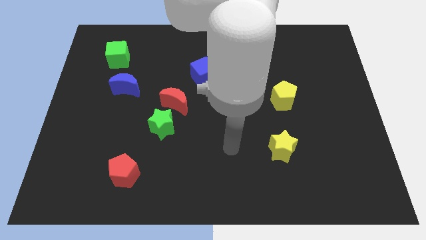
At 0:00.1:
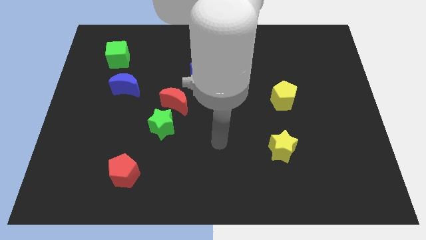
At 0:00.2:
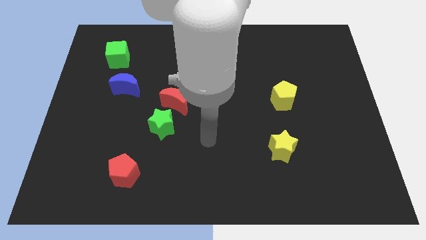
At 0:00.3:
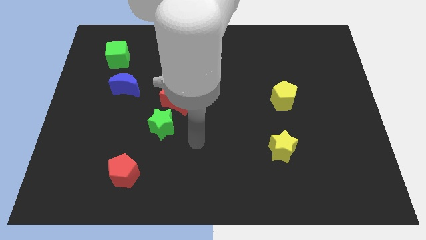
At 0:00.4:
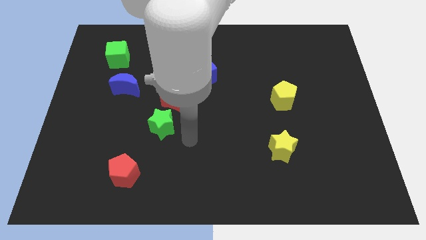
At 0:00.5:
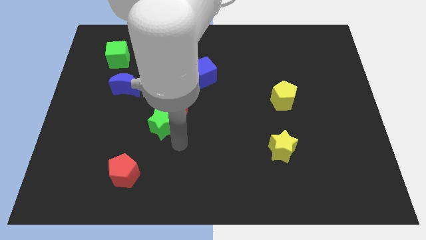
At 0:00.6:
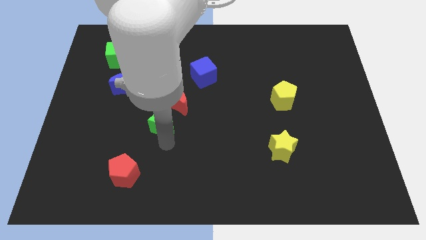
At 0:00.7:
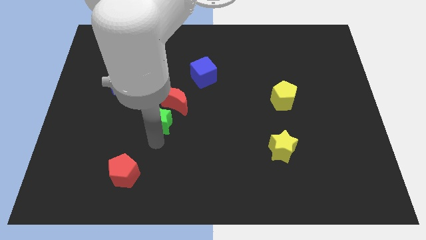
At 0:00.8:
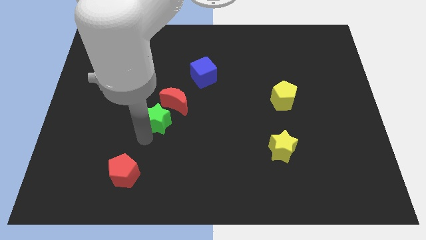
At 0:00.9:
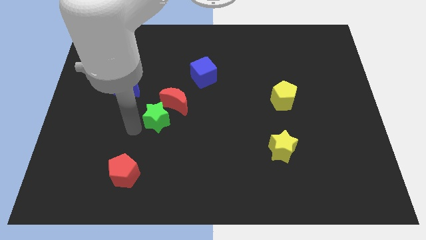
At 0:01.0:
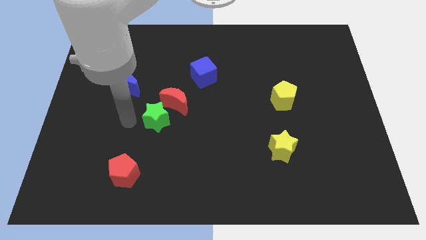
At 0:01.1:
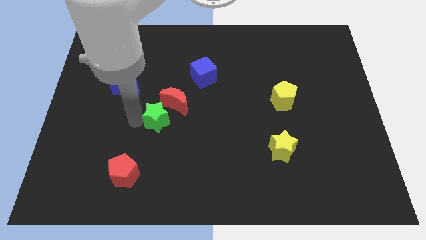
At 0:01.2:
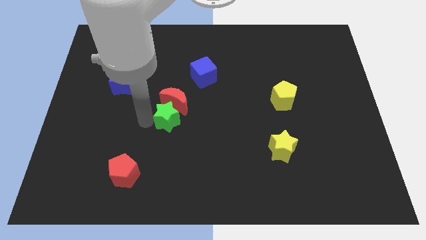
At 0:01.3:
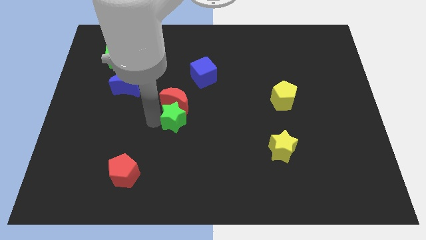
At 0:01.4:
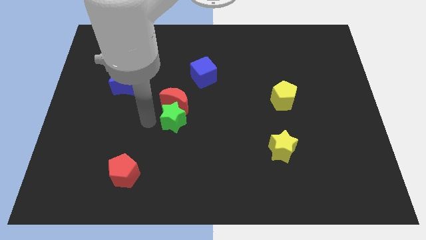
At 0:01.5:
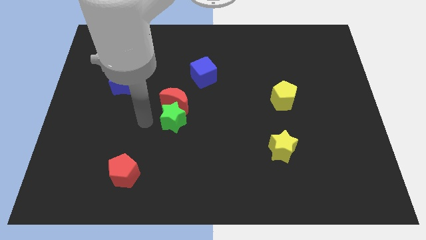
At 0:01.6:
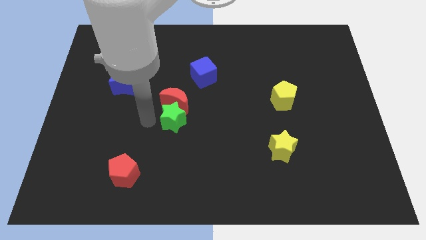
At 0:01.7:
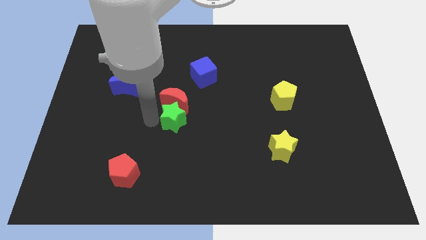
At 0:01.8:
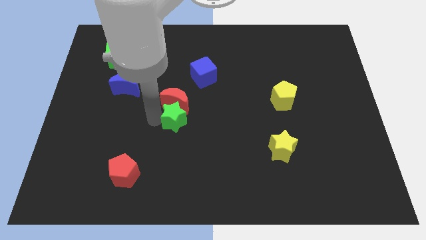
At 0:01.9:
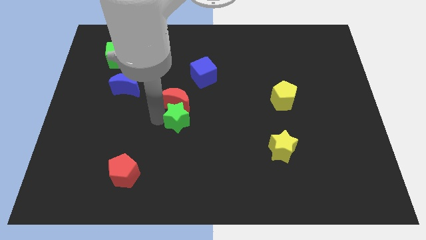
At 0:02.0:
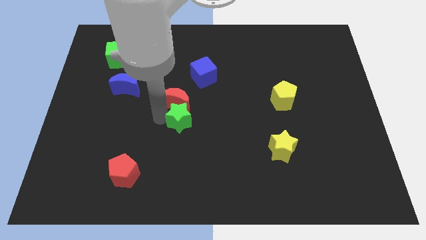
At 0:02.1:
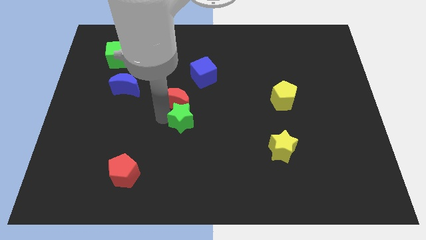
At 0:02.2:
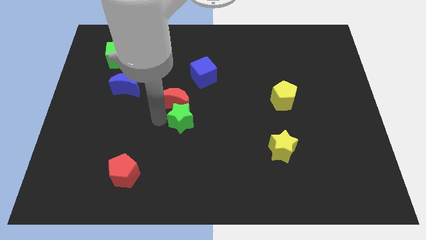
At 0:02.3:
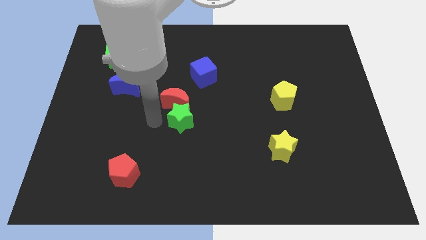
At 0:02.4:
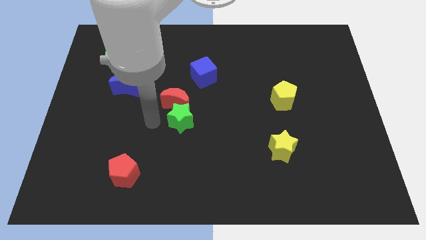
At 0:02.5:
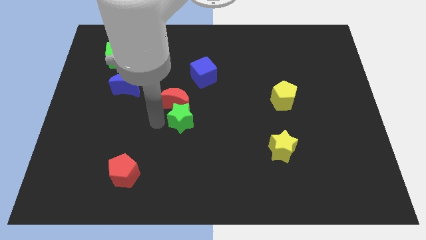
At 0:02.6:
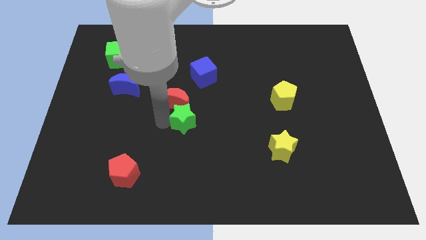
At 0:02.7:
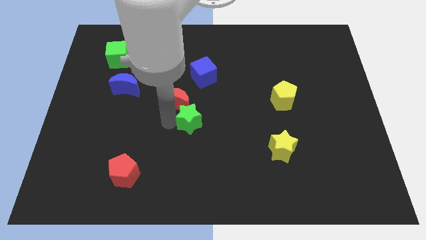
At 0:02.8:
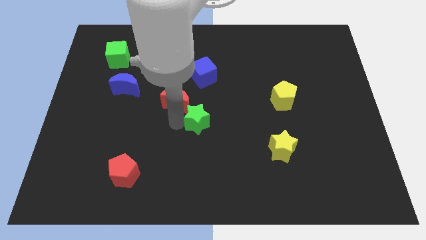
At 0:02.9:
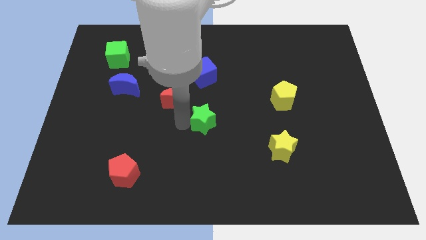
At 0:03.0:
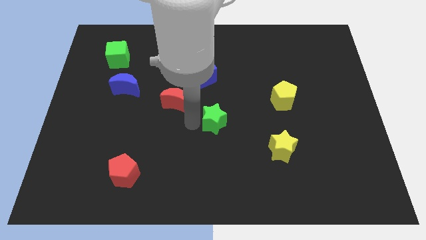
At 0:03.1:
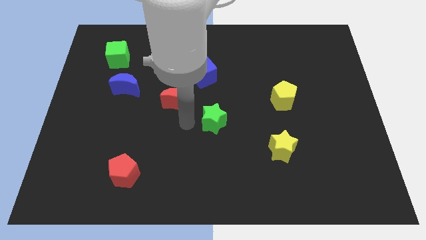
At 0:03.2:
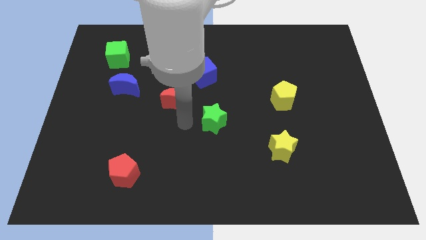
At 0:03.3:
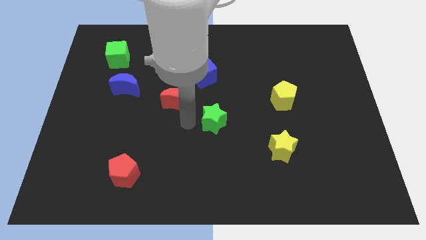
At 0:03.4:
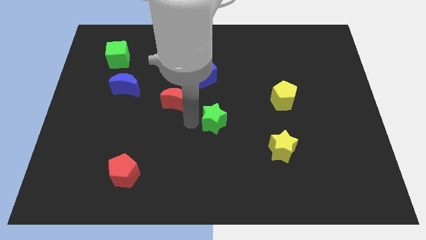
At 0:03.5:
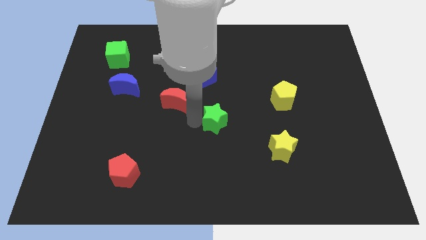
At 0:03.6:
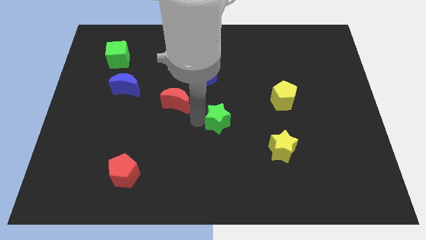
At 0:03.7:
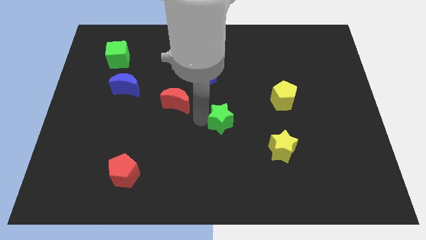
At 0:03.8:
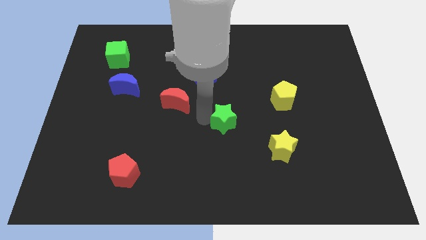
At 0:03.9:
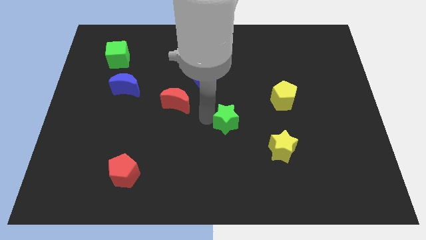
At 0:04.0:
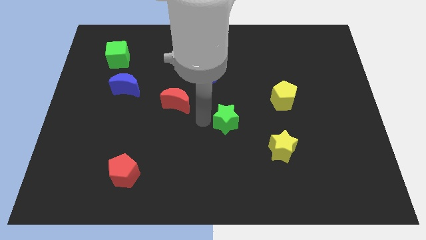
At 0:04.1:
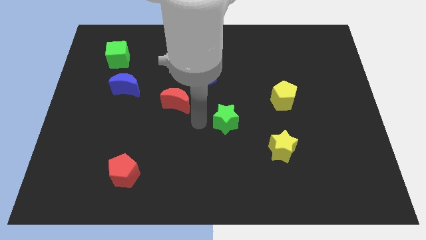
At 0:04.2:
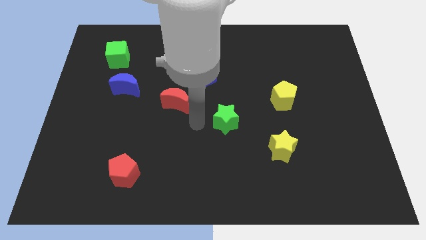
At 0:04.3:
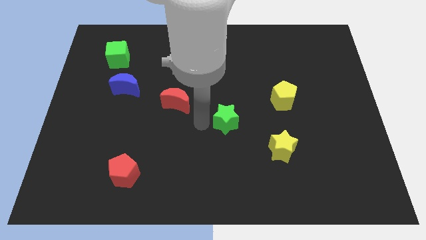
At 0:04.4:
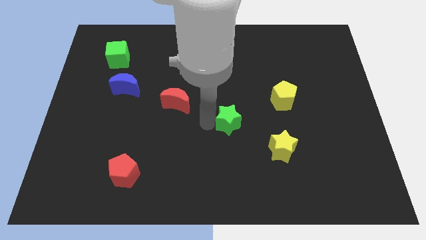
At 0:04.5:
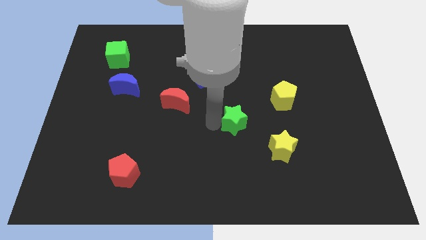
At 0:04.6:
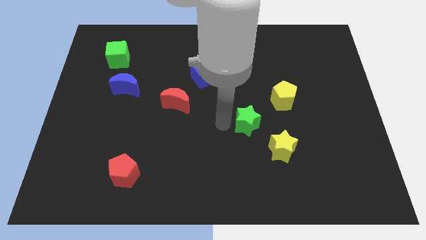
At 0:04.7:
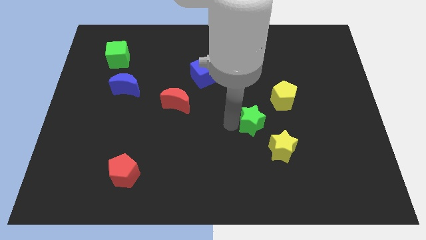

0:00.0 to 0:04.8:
slide the green star to the right

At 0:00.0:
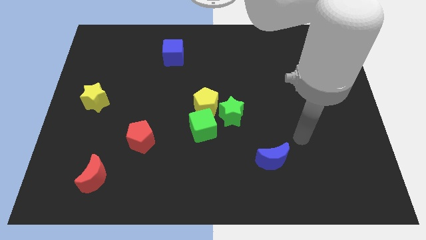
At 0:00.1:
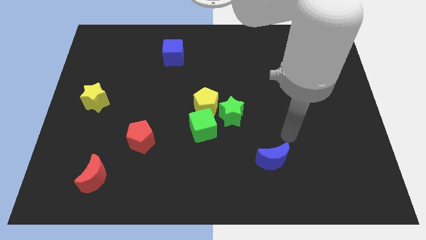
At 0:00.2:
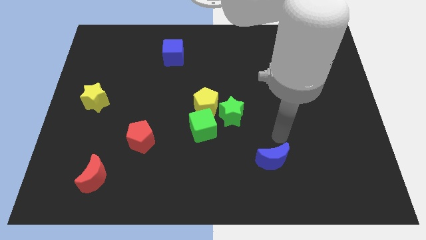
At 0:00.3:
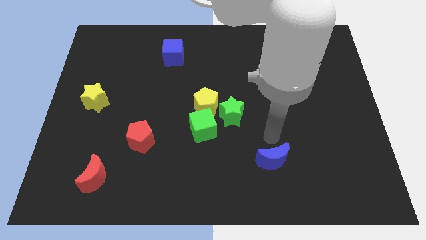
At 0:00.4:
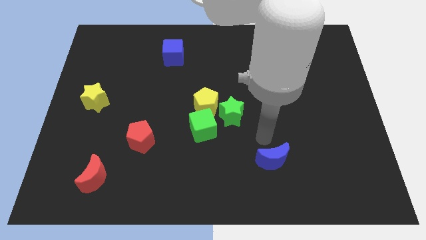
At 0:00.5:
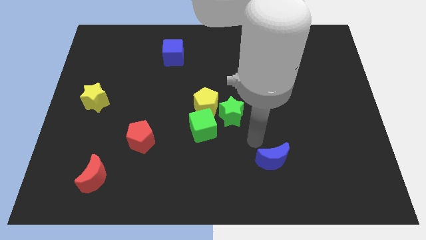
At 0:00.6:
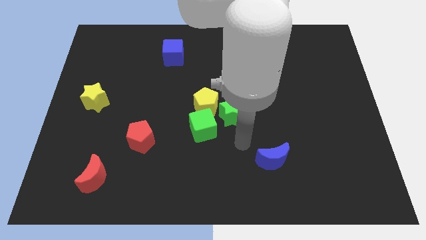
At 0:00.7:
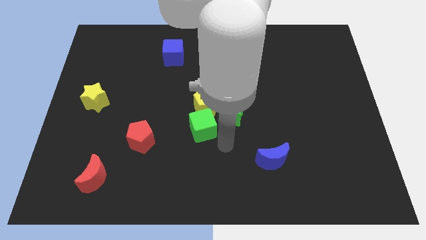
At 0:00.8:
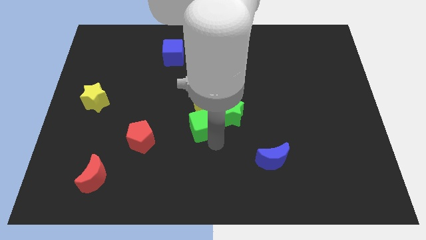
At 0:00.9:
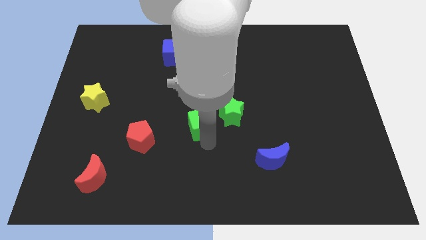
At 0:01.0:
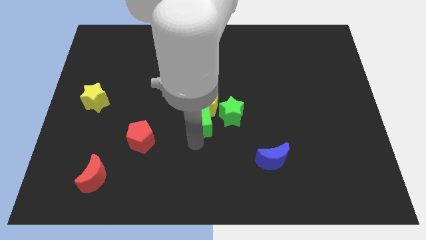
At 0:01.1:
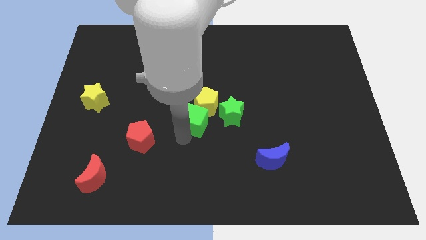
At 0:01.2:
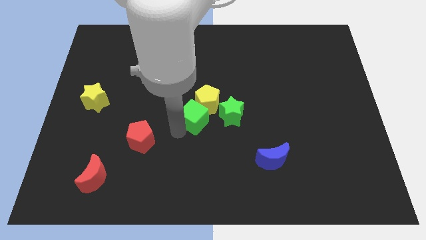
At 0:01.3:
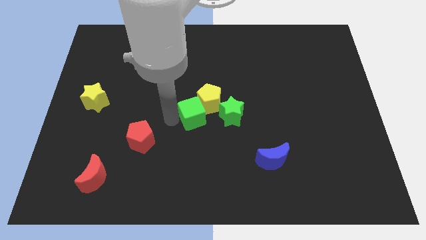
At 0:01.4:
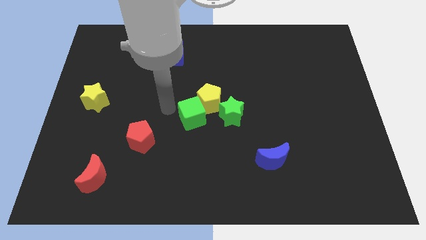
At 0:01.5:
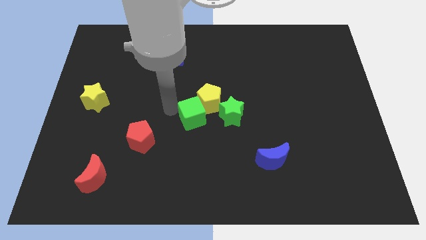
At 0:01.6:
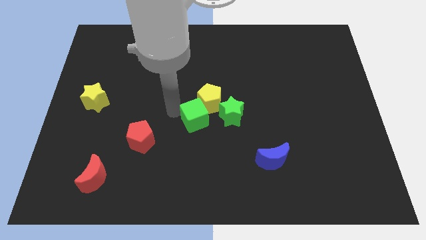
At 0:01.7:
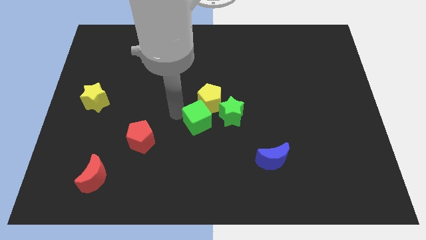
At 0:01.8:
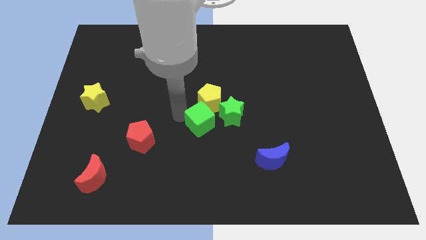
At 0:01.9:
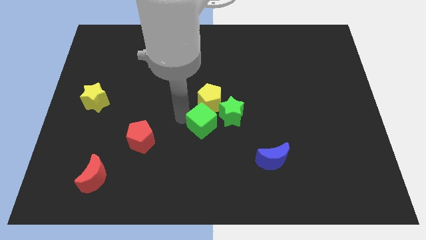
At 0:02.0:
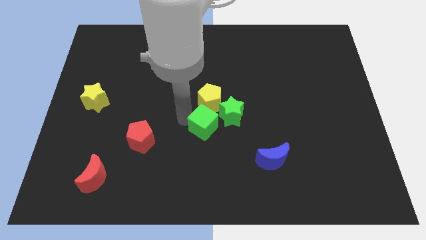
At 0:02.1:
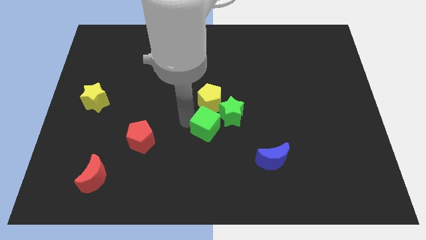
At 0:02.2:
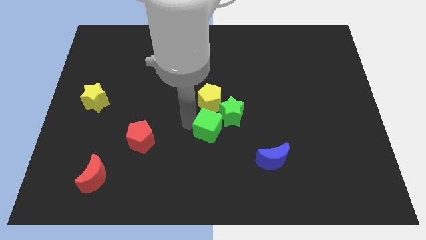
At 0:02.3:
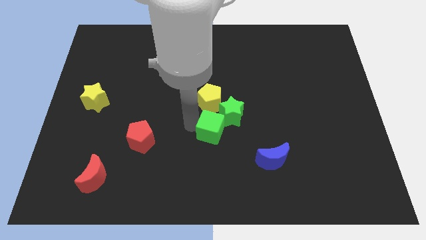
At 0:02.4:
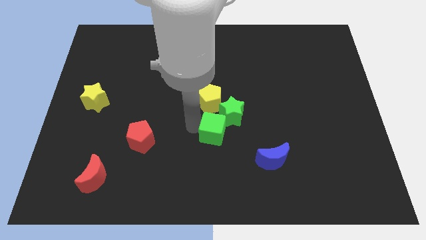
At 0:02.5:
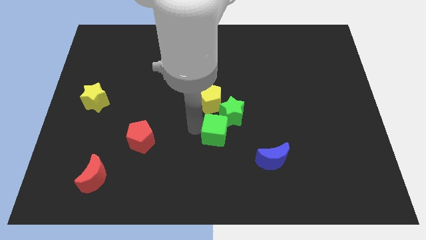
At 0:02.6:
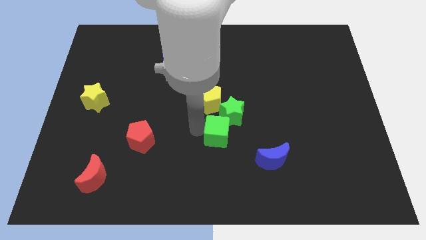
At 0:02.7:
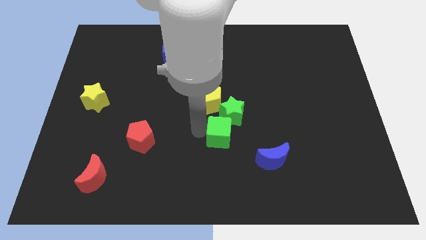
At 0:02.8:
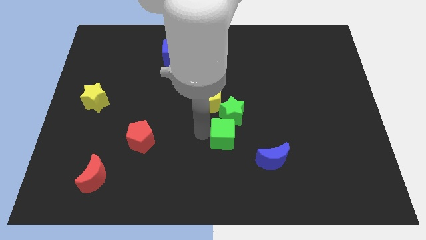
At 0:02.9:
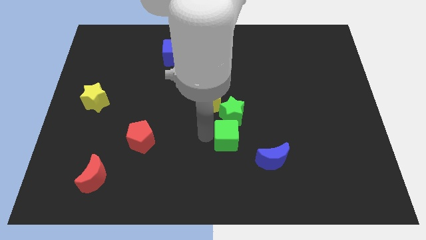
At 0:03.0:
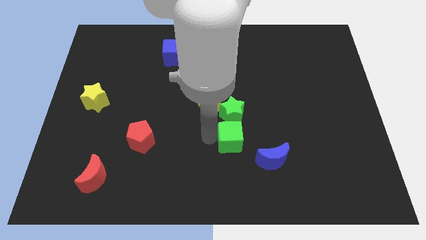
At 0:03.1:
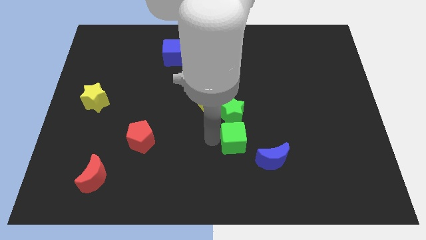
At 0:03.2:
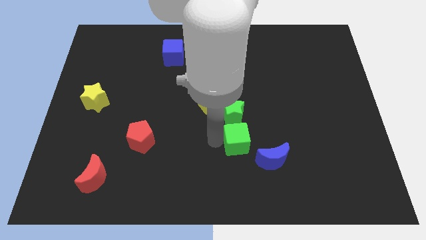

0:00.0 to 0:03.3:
slide the green cube a little right

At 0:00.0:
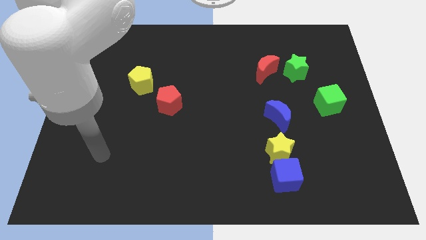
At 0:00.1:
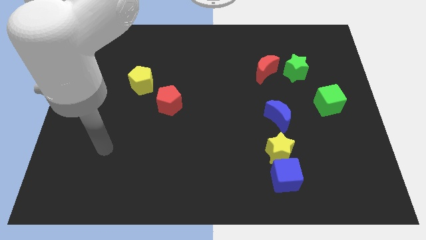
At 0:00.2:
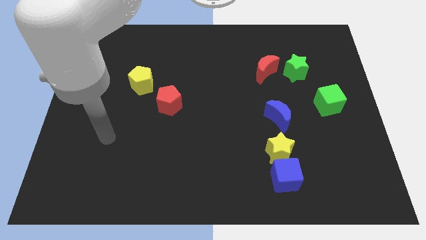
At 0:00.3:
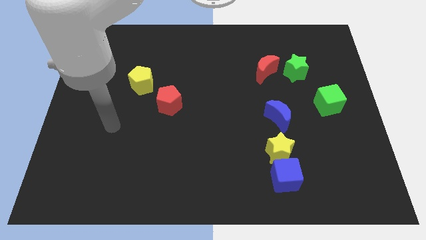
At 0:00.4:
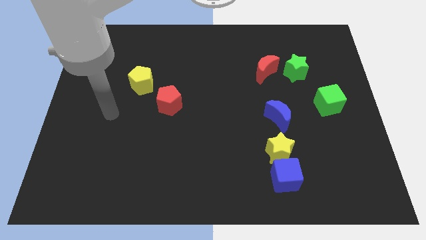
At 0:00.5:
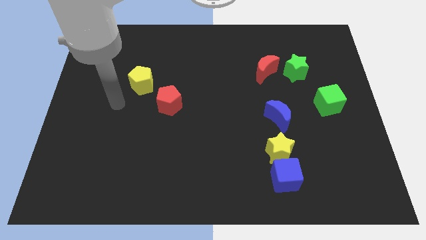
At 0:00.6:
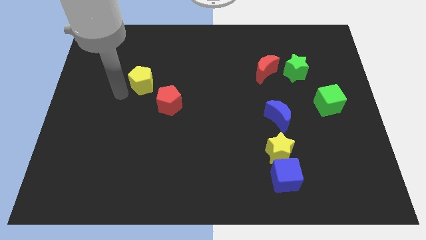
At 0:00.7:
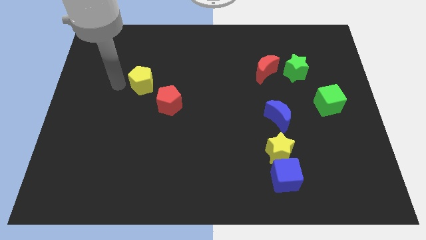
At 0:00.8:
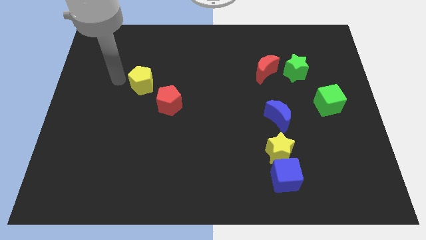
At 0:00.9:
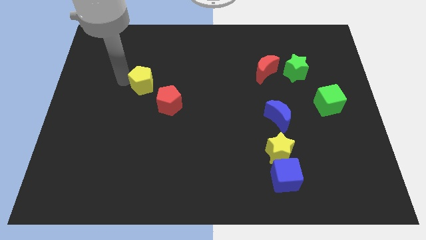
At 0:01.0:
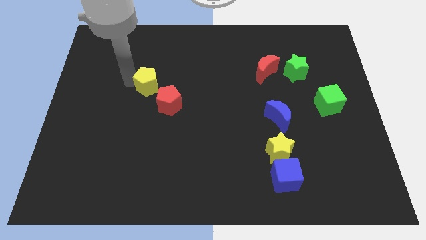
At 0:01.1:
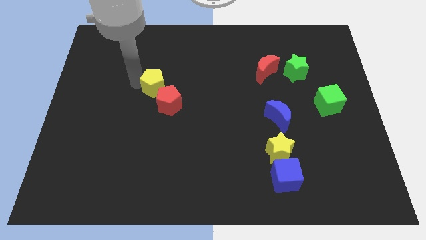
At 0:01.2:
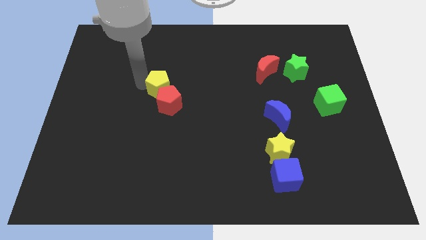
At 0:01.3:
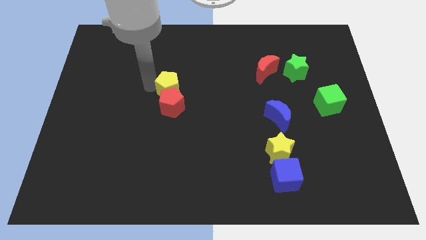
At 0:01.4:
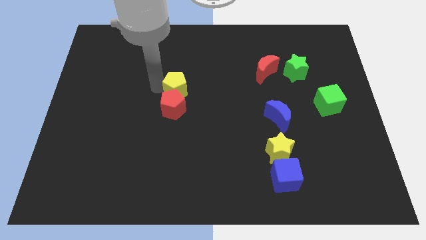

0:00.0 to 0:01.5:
push the yellow pentagon right slightly
